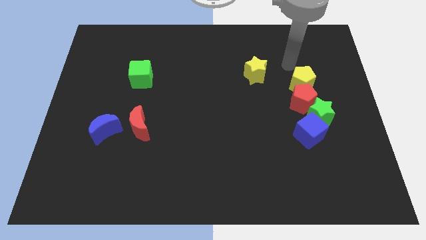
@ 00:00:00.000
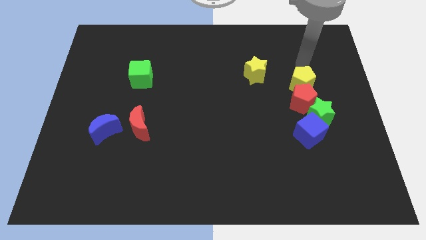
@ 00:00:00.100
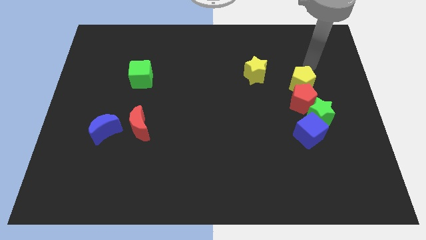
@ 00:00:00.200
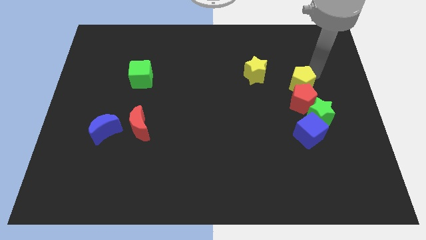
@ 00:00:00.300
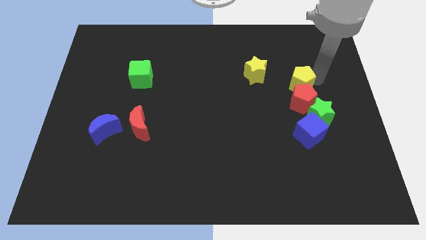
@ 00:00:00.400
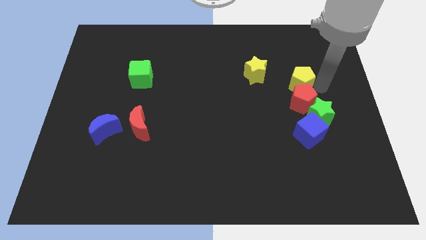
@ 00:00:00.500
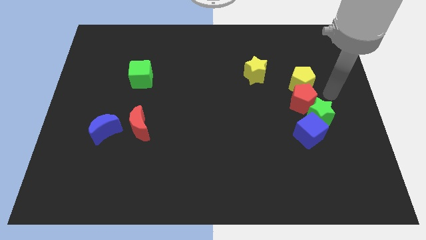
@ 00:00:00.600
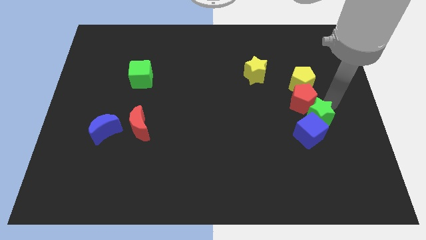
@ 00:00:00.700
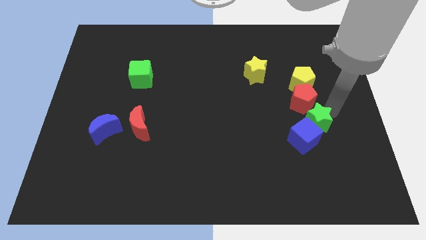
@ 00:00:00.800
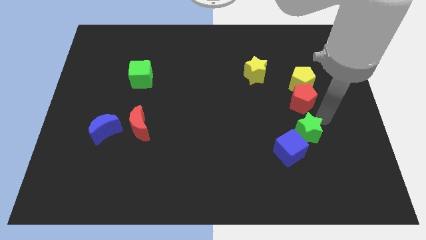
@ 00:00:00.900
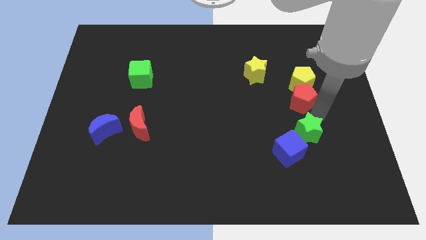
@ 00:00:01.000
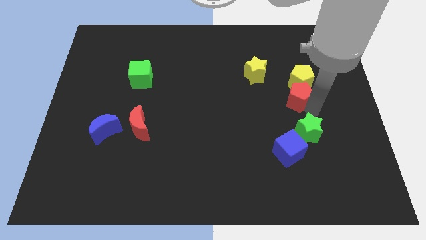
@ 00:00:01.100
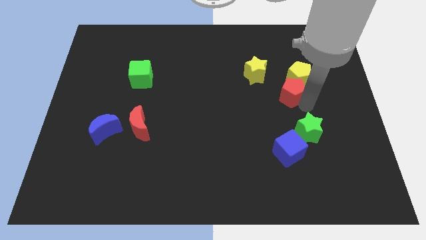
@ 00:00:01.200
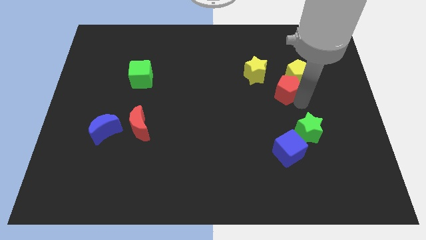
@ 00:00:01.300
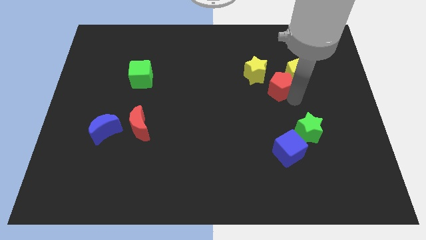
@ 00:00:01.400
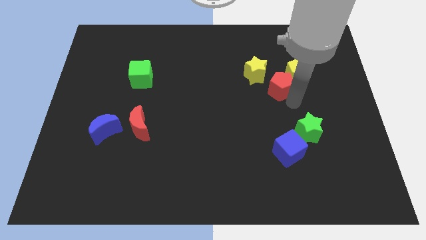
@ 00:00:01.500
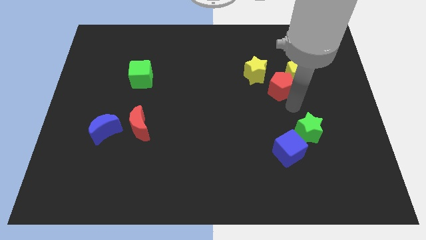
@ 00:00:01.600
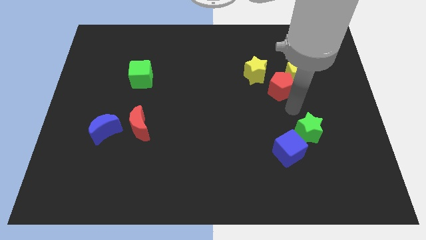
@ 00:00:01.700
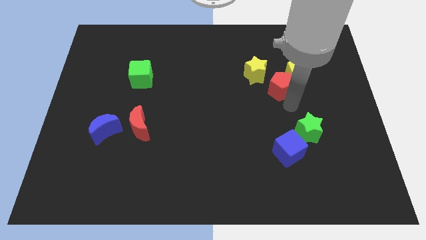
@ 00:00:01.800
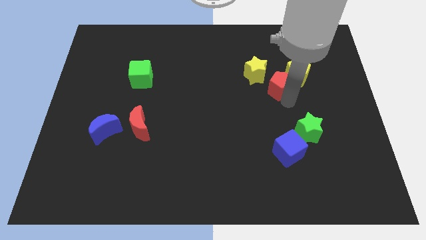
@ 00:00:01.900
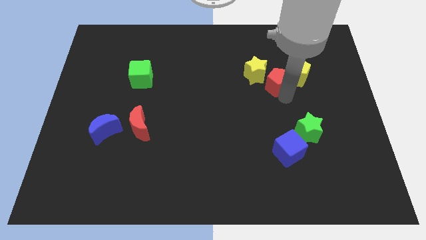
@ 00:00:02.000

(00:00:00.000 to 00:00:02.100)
separate the red pentagon from the green star, yellow pentagon, and blue cube

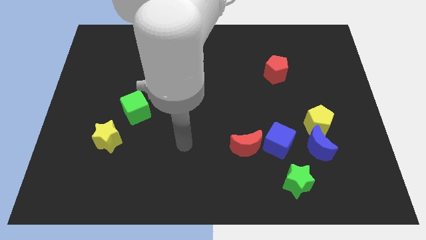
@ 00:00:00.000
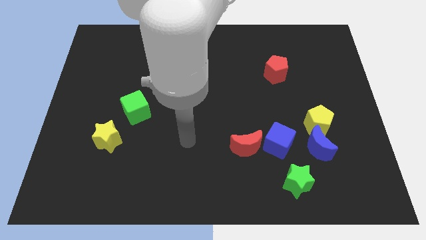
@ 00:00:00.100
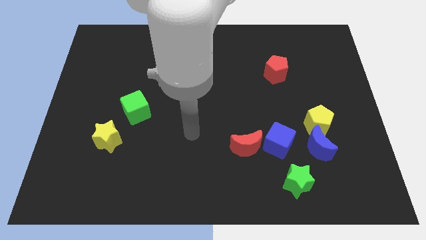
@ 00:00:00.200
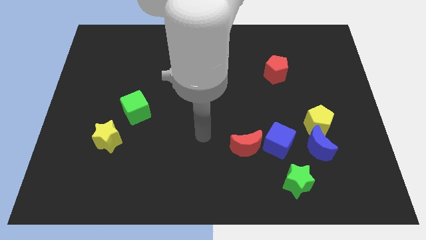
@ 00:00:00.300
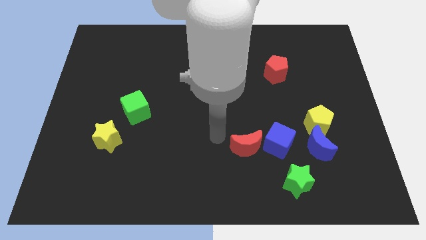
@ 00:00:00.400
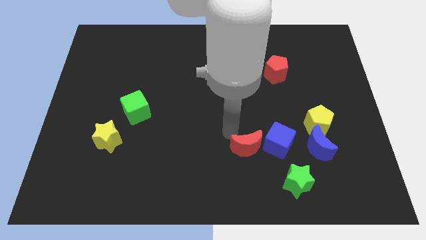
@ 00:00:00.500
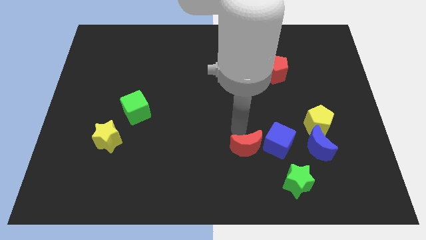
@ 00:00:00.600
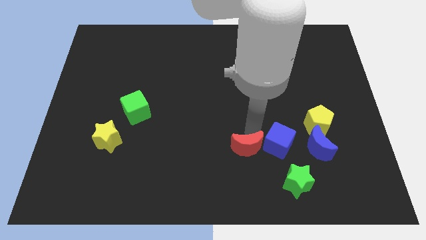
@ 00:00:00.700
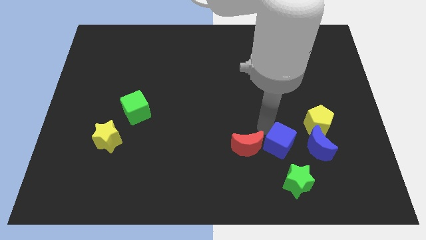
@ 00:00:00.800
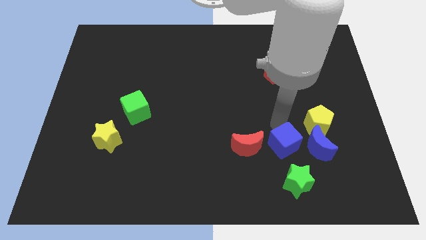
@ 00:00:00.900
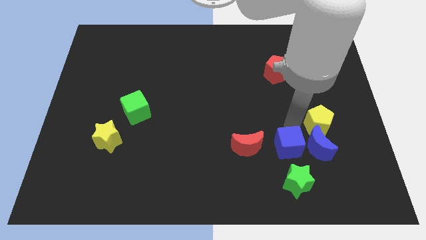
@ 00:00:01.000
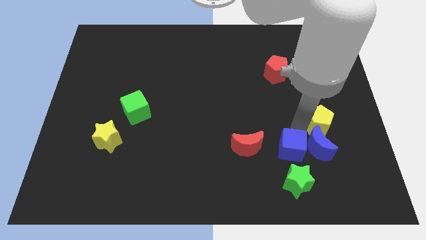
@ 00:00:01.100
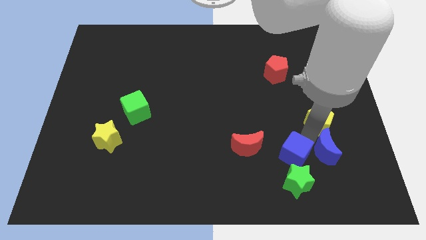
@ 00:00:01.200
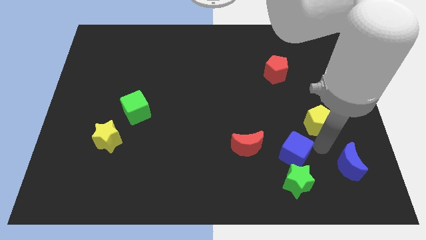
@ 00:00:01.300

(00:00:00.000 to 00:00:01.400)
move the yellow pentagon away from the blue moon

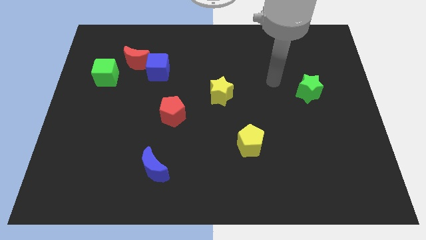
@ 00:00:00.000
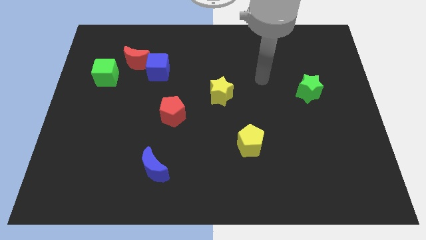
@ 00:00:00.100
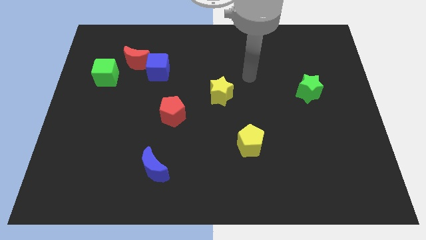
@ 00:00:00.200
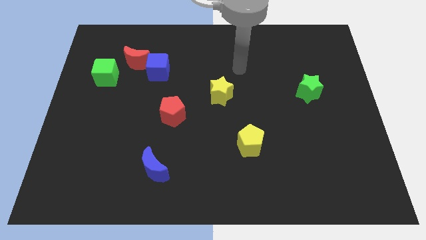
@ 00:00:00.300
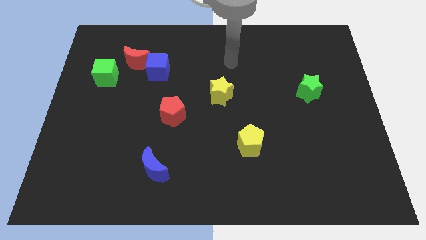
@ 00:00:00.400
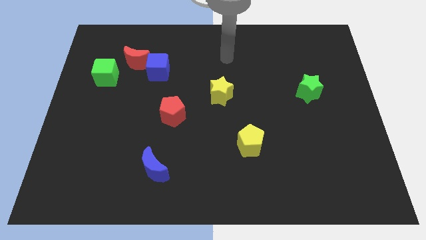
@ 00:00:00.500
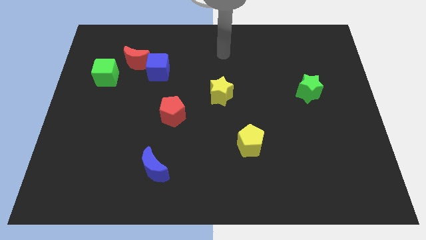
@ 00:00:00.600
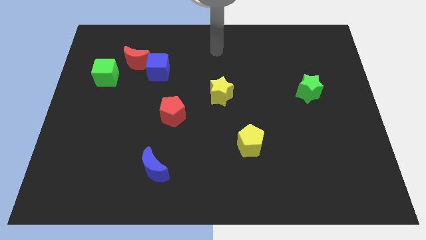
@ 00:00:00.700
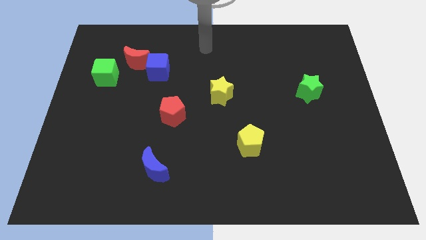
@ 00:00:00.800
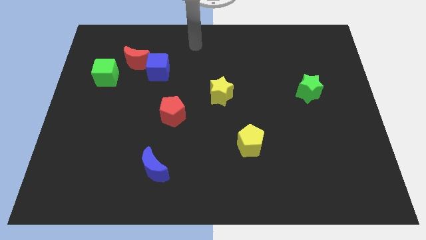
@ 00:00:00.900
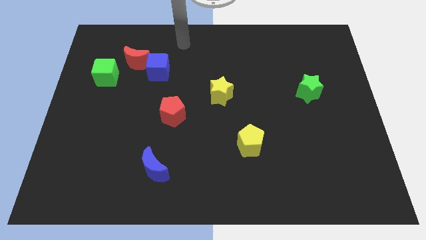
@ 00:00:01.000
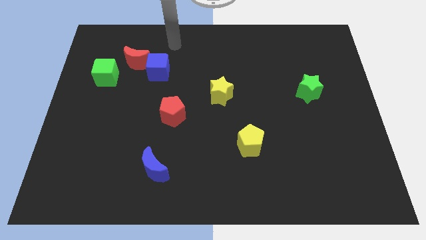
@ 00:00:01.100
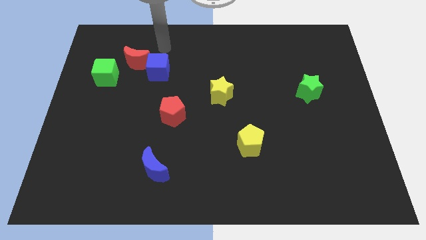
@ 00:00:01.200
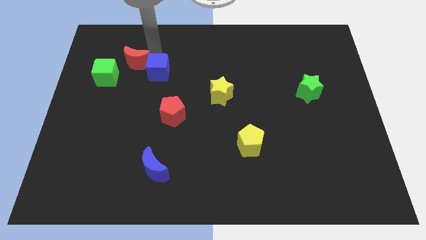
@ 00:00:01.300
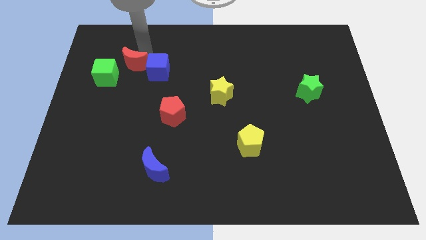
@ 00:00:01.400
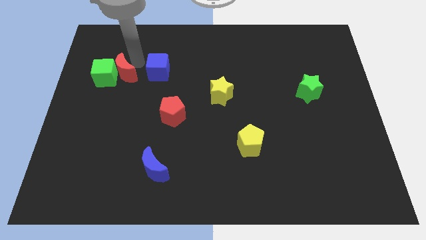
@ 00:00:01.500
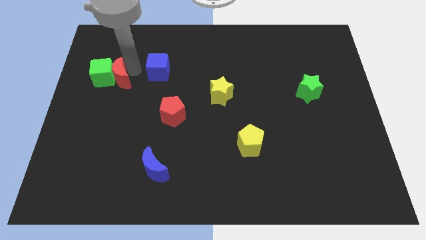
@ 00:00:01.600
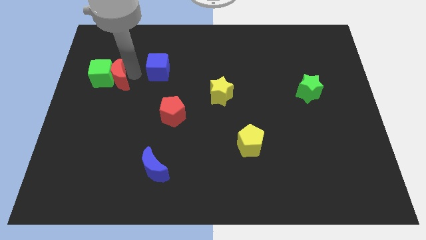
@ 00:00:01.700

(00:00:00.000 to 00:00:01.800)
separate the blue cube from the red moon

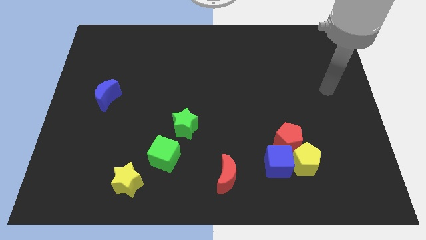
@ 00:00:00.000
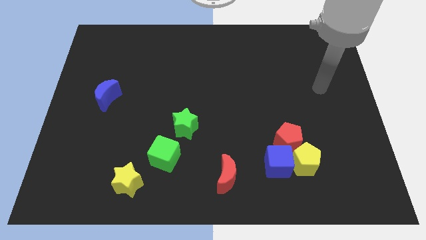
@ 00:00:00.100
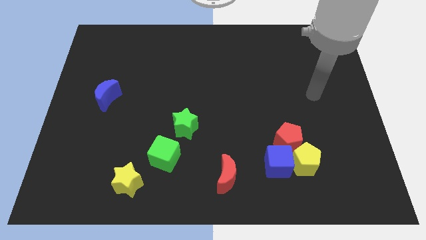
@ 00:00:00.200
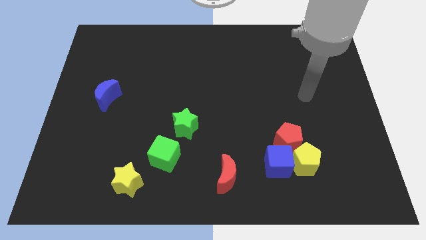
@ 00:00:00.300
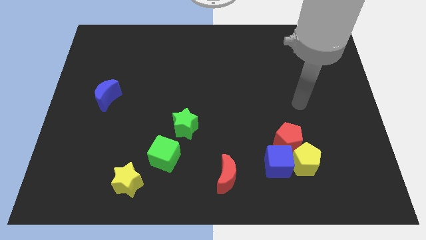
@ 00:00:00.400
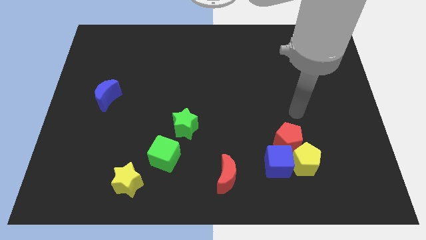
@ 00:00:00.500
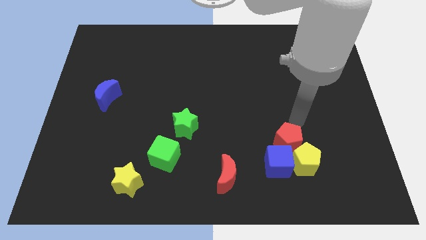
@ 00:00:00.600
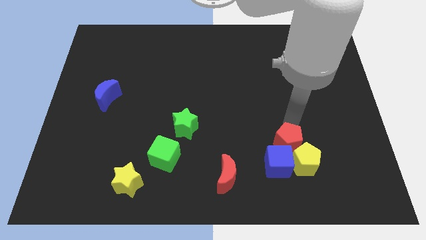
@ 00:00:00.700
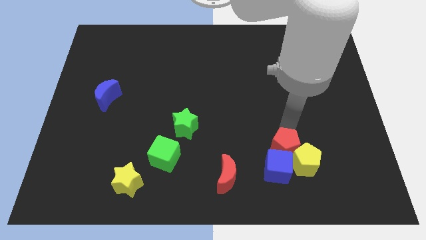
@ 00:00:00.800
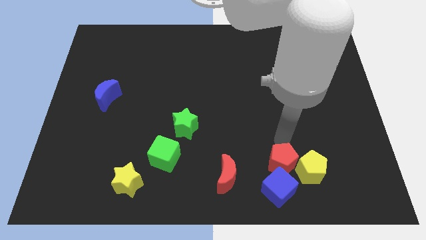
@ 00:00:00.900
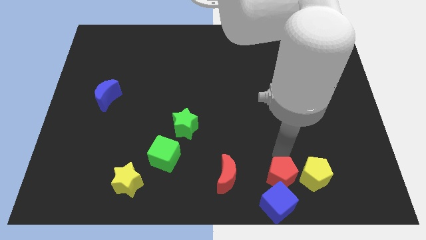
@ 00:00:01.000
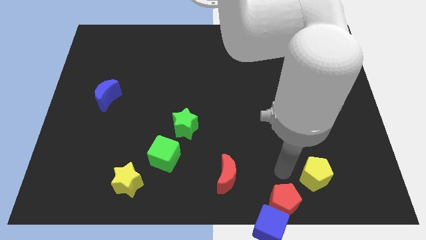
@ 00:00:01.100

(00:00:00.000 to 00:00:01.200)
separate the yellow pentagon from the blue cube and red pentagon

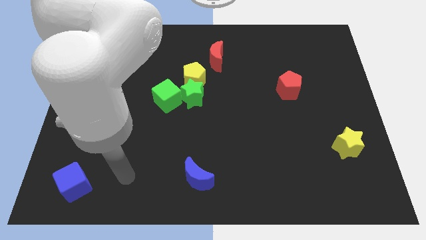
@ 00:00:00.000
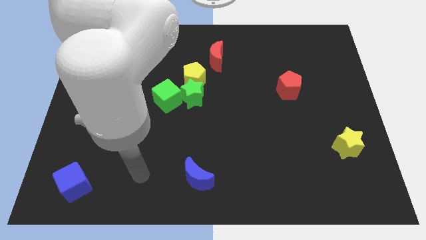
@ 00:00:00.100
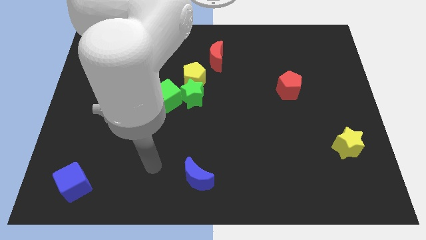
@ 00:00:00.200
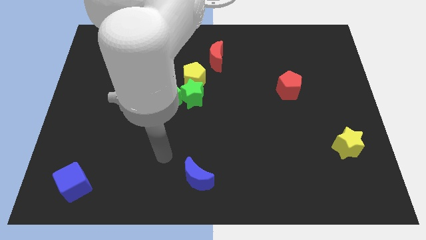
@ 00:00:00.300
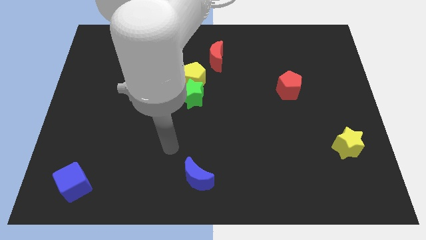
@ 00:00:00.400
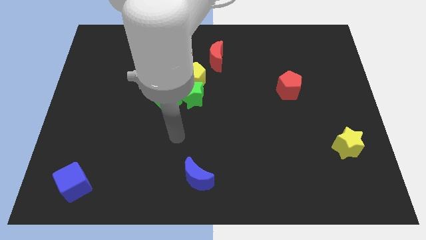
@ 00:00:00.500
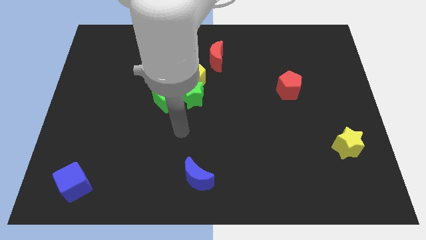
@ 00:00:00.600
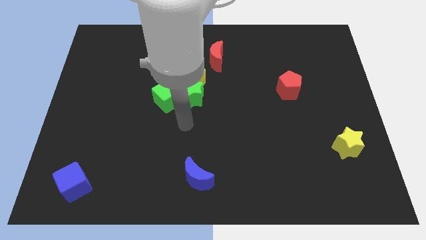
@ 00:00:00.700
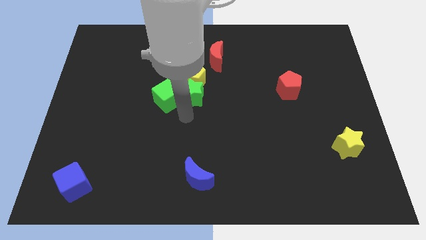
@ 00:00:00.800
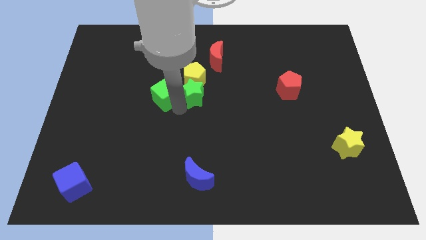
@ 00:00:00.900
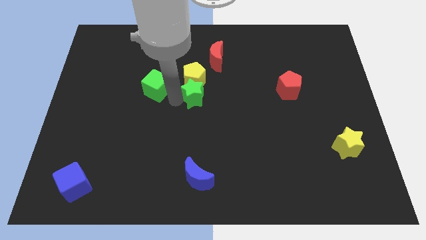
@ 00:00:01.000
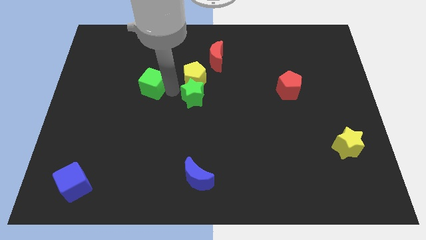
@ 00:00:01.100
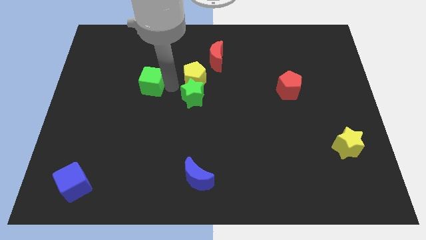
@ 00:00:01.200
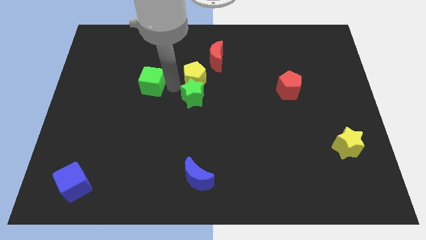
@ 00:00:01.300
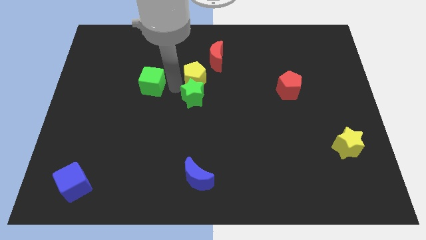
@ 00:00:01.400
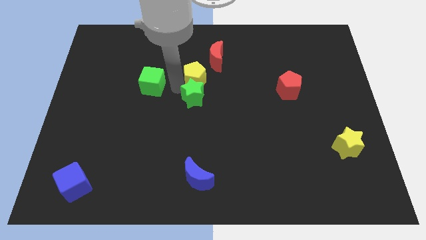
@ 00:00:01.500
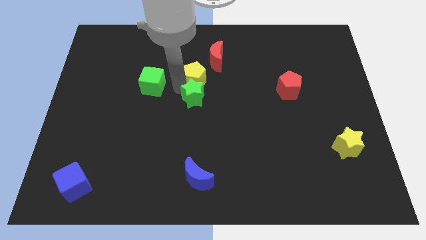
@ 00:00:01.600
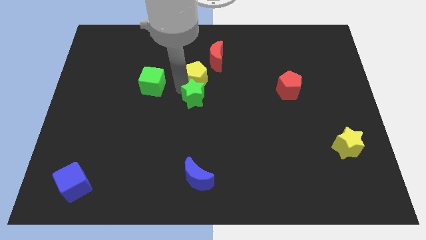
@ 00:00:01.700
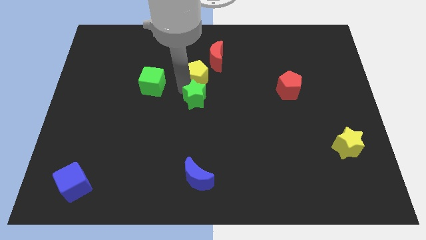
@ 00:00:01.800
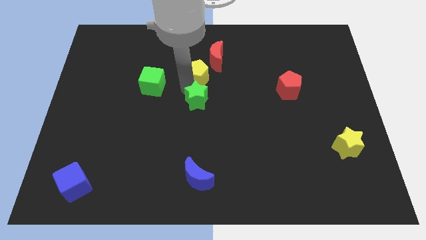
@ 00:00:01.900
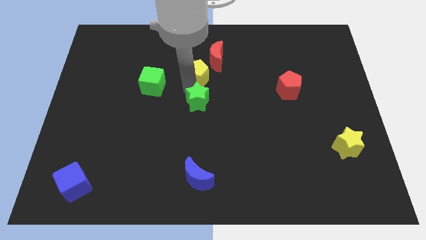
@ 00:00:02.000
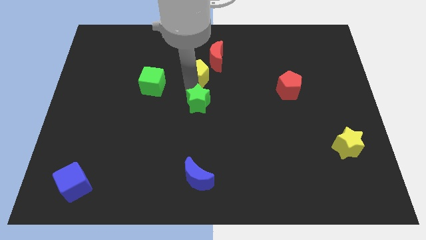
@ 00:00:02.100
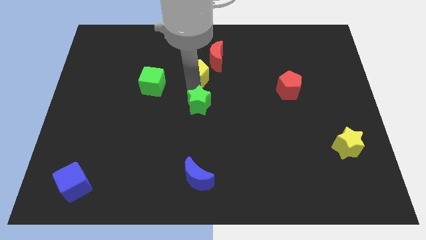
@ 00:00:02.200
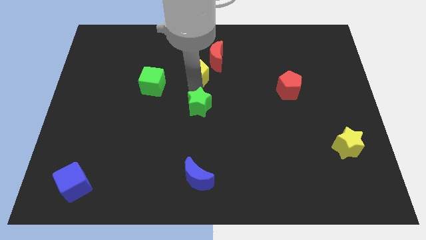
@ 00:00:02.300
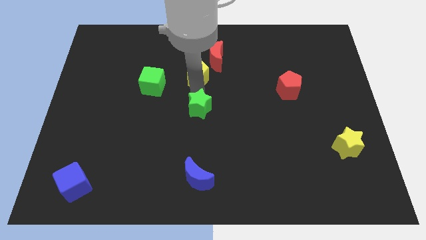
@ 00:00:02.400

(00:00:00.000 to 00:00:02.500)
move the green star away from the yellow pentagon and green cube
